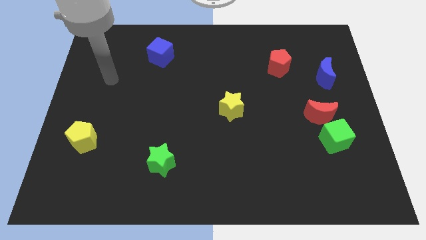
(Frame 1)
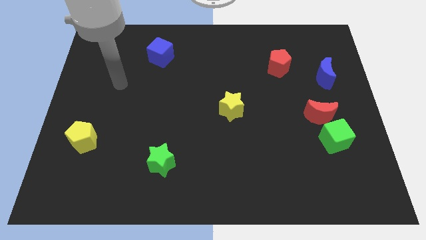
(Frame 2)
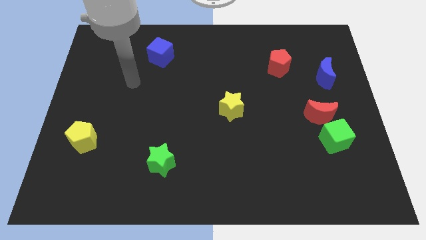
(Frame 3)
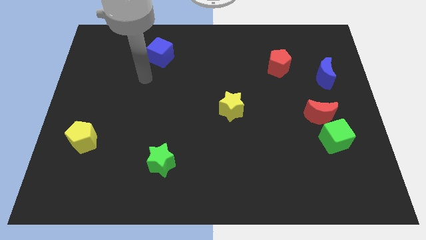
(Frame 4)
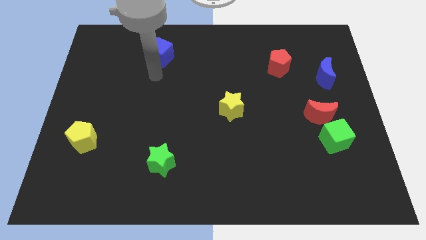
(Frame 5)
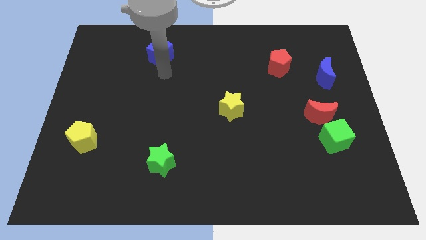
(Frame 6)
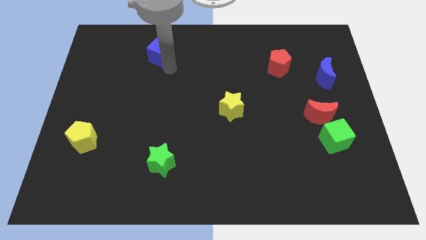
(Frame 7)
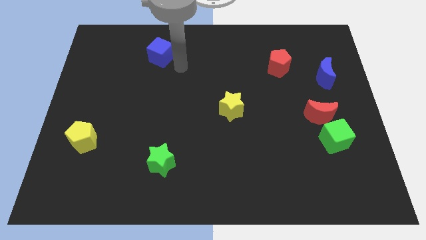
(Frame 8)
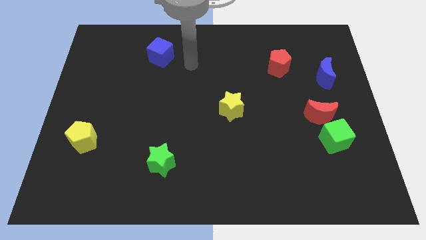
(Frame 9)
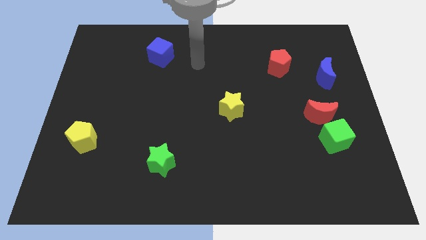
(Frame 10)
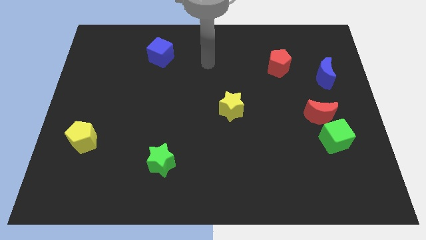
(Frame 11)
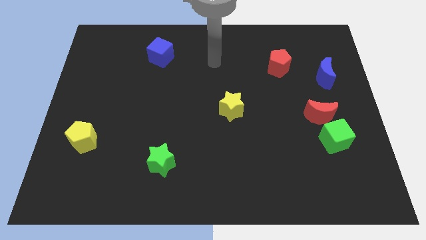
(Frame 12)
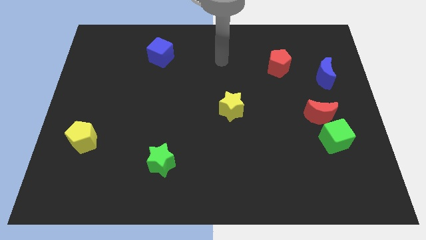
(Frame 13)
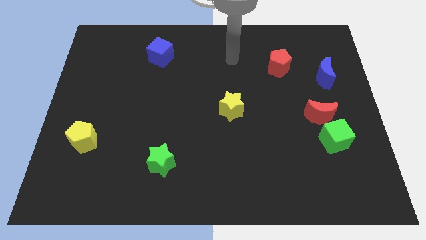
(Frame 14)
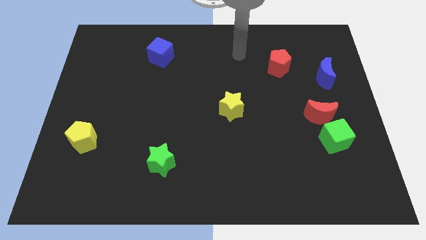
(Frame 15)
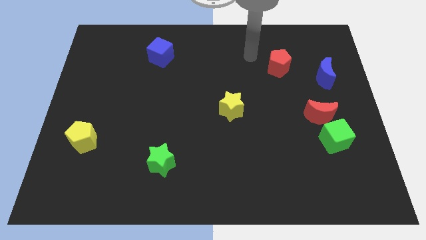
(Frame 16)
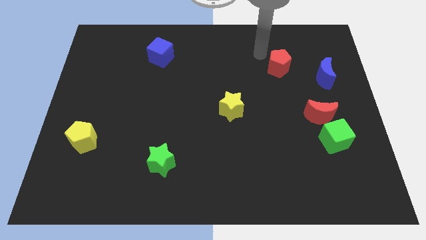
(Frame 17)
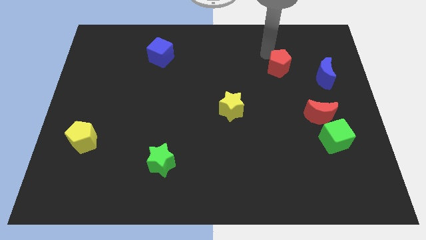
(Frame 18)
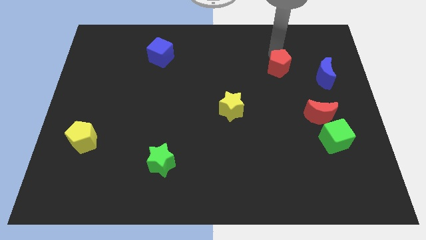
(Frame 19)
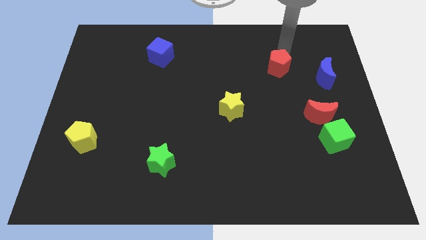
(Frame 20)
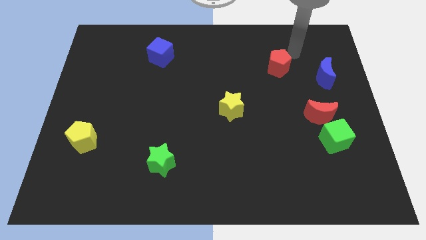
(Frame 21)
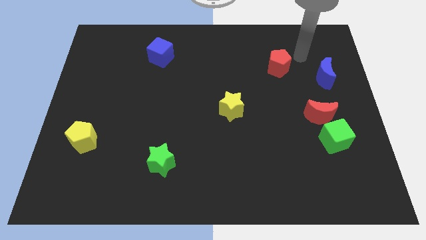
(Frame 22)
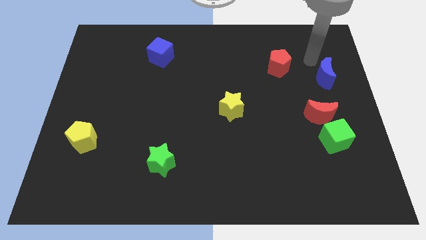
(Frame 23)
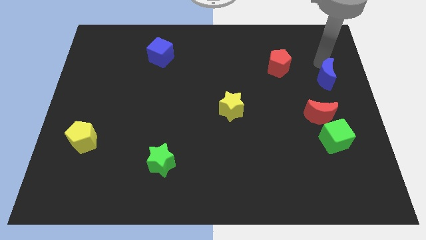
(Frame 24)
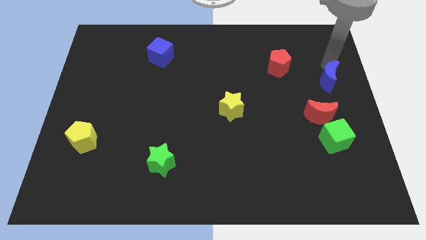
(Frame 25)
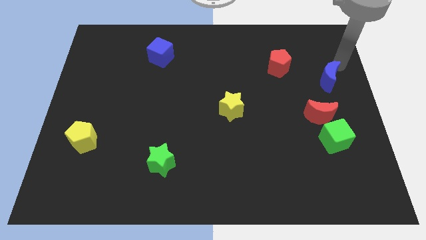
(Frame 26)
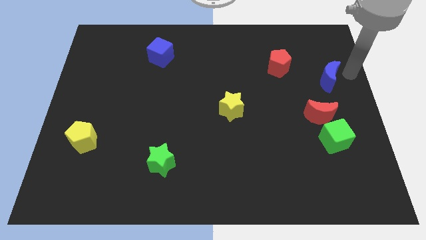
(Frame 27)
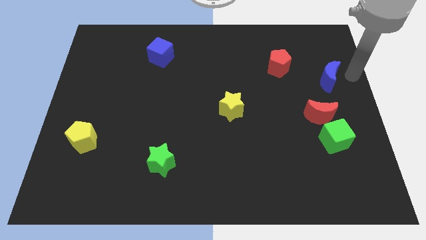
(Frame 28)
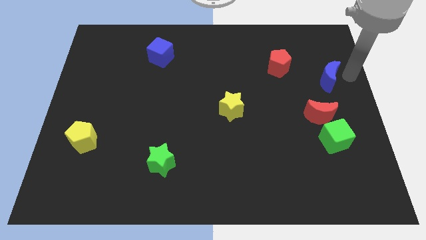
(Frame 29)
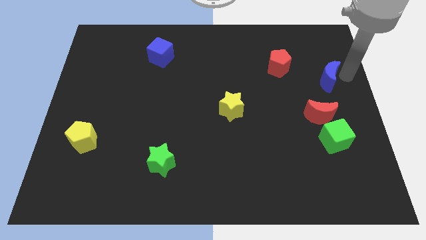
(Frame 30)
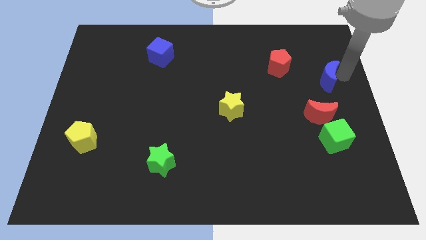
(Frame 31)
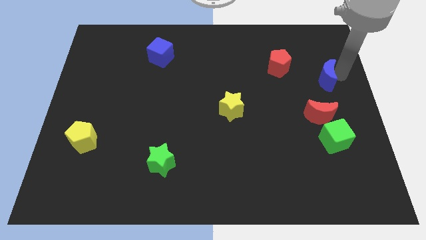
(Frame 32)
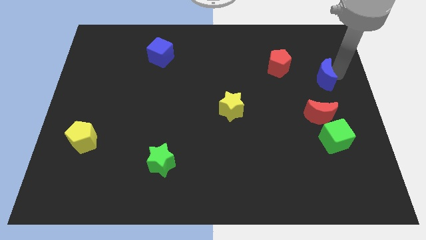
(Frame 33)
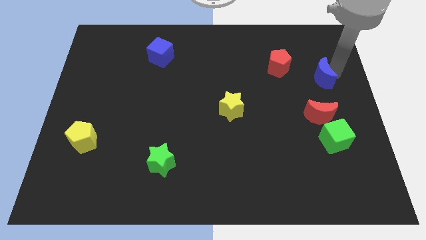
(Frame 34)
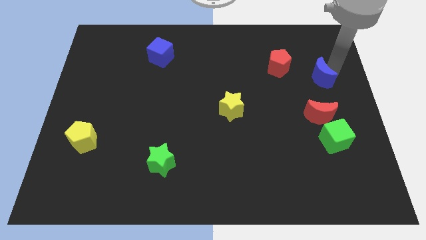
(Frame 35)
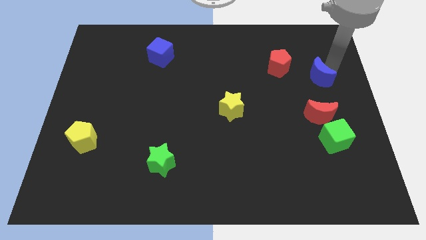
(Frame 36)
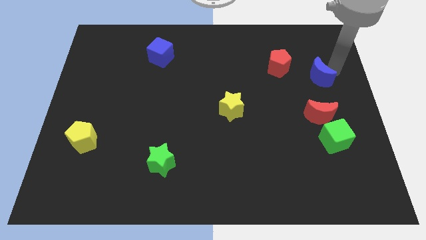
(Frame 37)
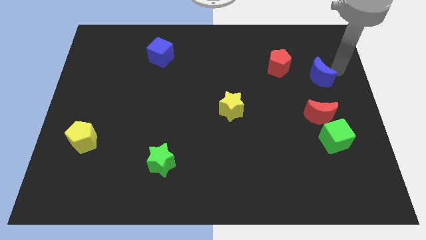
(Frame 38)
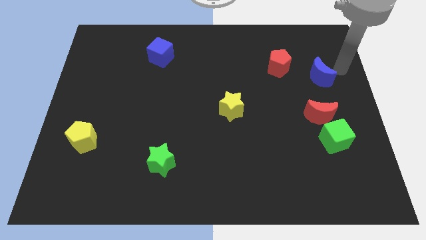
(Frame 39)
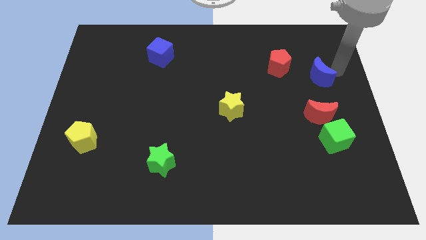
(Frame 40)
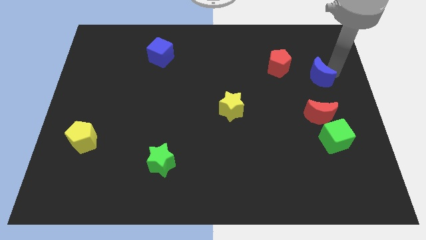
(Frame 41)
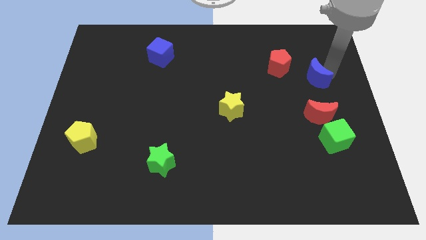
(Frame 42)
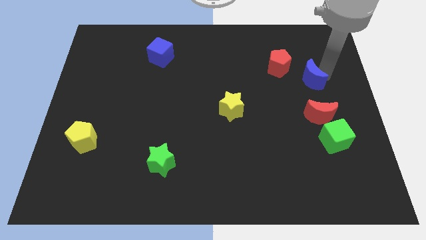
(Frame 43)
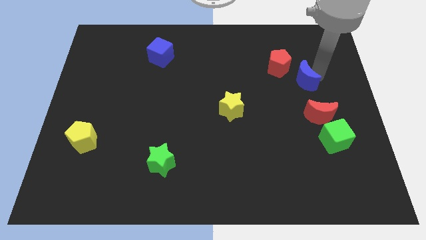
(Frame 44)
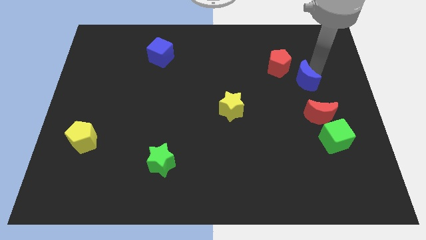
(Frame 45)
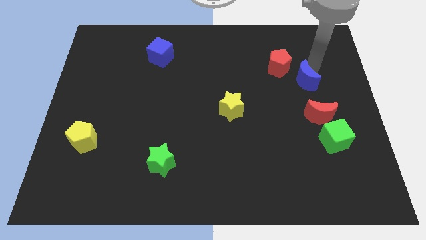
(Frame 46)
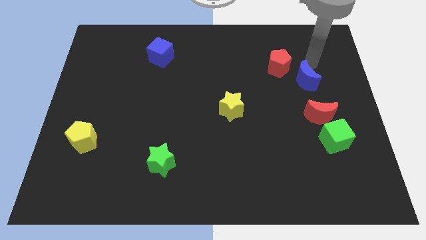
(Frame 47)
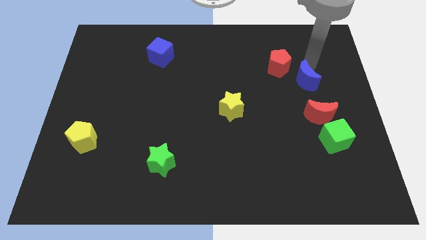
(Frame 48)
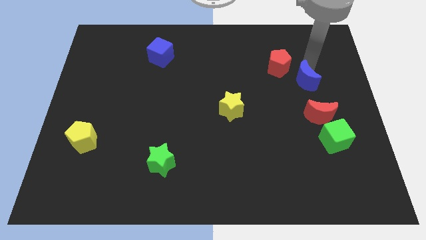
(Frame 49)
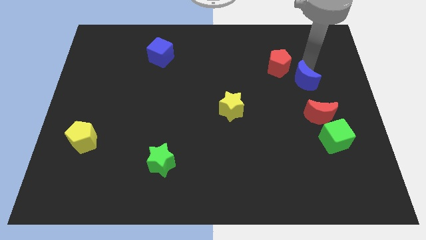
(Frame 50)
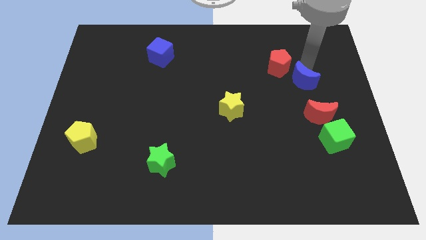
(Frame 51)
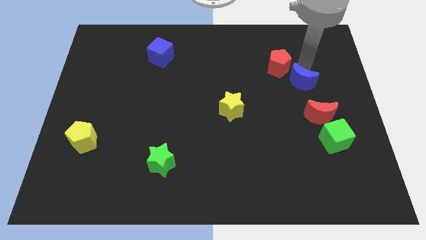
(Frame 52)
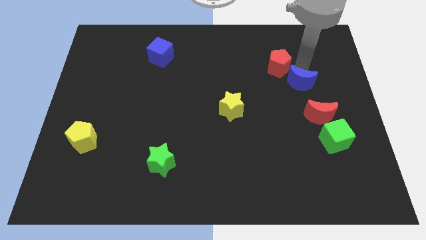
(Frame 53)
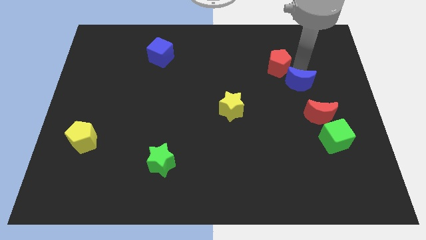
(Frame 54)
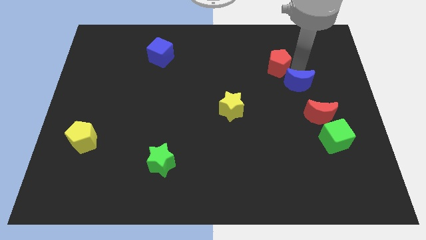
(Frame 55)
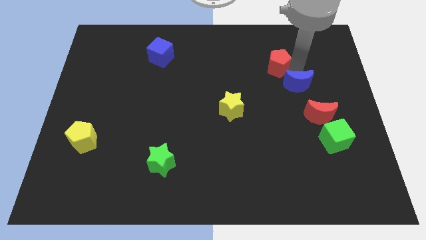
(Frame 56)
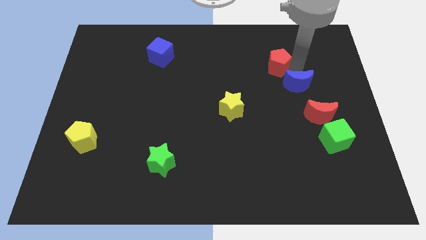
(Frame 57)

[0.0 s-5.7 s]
move the blue moon downwards and to the left somewhat

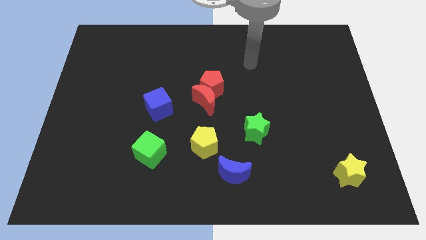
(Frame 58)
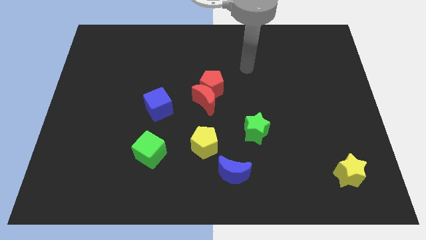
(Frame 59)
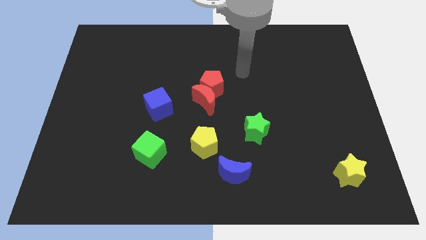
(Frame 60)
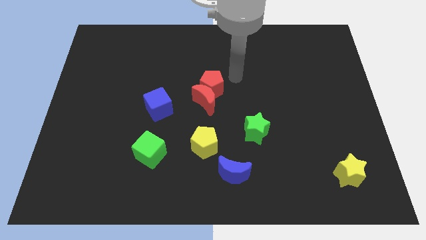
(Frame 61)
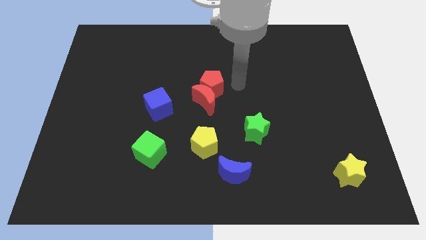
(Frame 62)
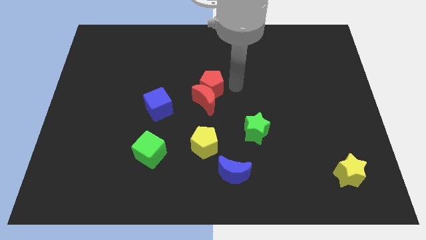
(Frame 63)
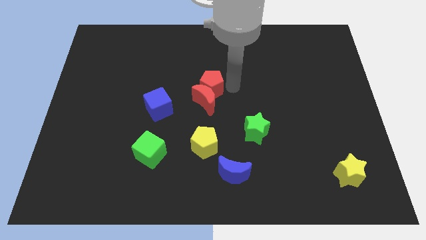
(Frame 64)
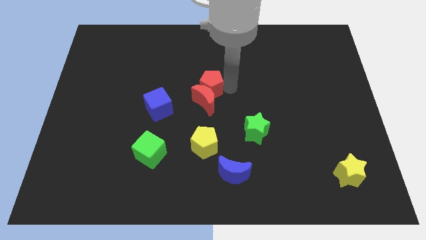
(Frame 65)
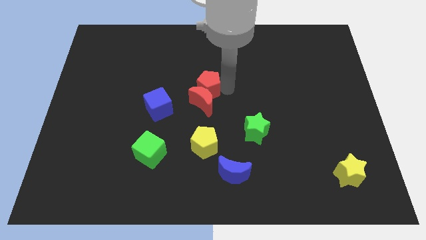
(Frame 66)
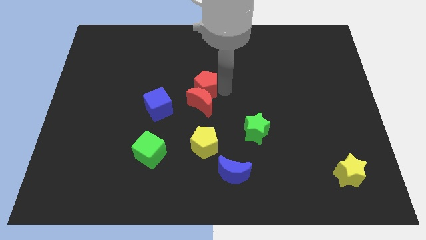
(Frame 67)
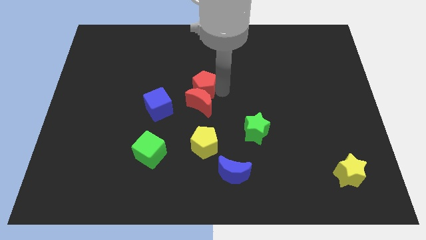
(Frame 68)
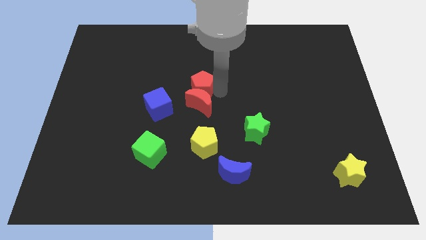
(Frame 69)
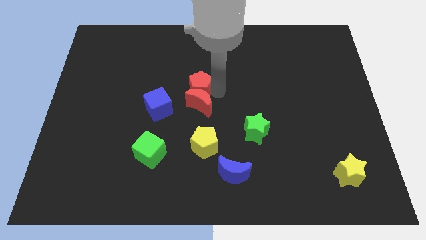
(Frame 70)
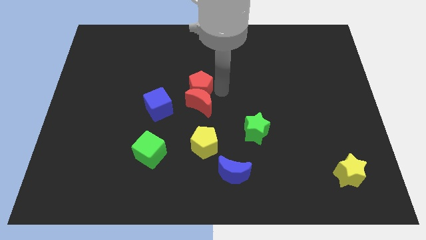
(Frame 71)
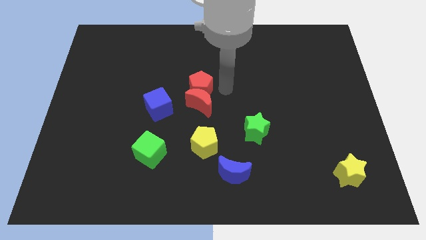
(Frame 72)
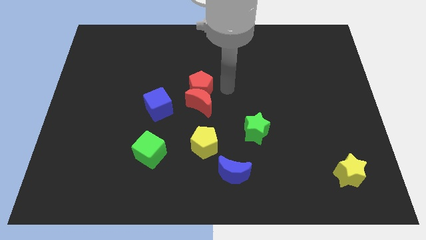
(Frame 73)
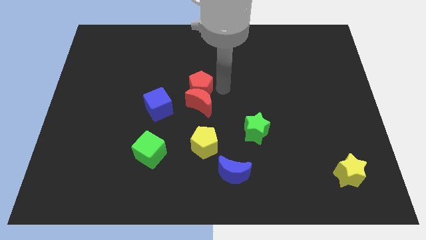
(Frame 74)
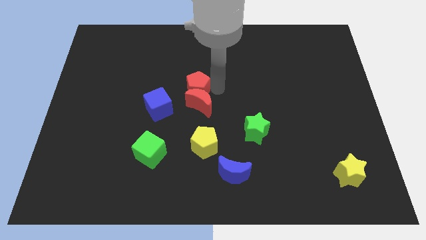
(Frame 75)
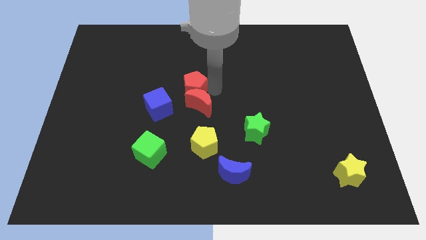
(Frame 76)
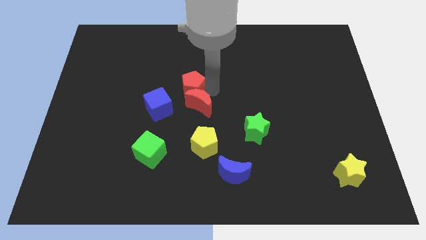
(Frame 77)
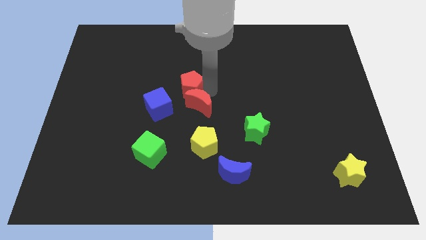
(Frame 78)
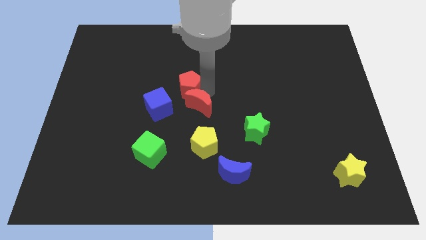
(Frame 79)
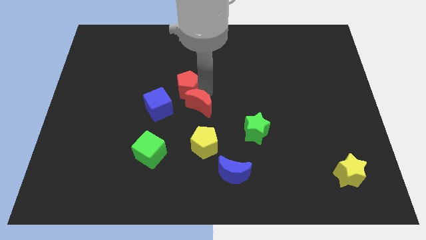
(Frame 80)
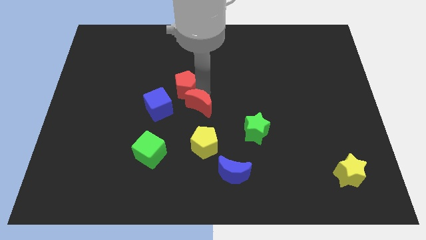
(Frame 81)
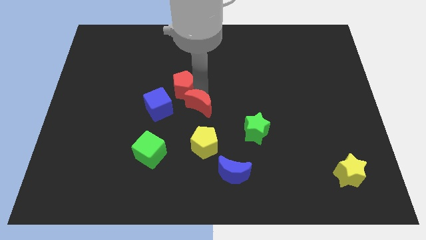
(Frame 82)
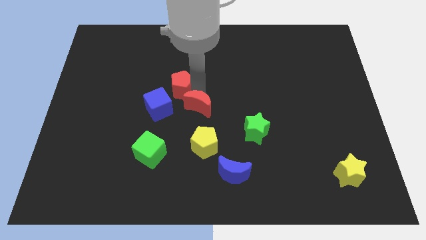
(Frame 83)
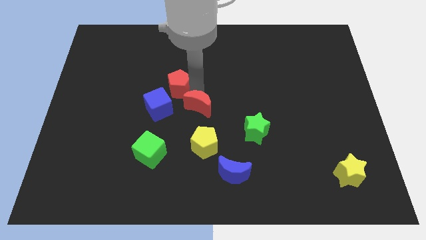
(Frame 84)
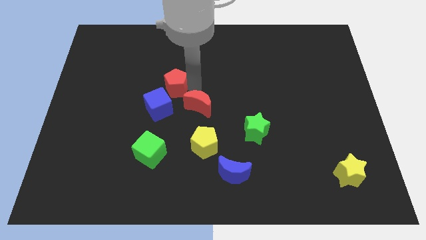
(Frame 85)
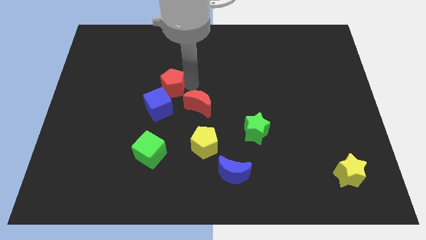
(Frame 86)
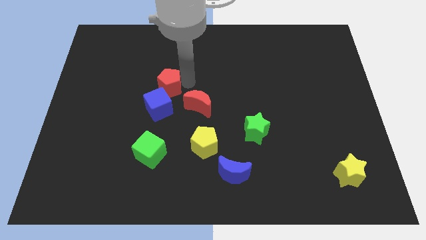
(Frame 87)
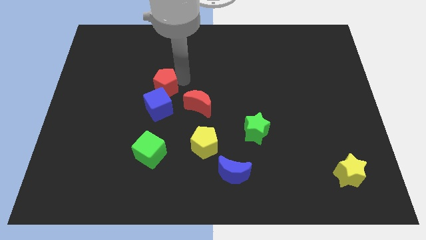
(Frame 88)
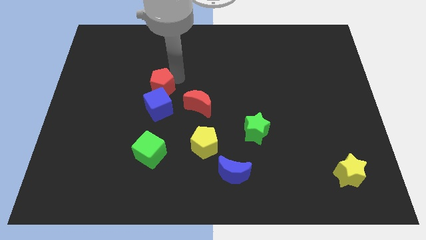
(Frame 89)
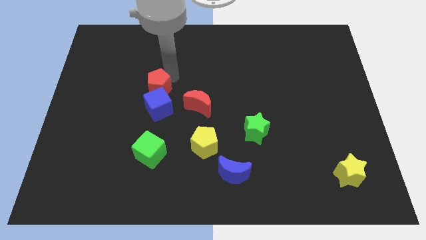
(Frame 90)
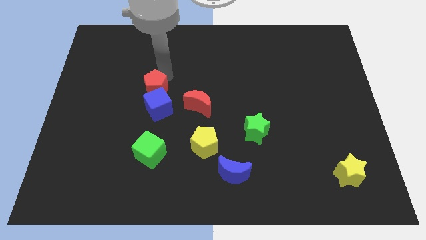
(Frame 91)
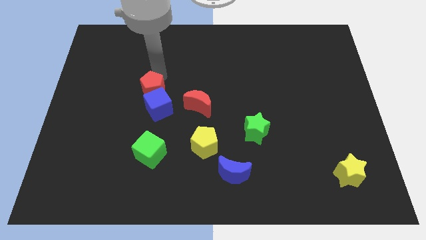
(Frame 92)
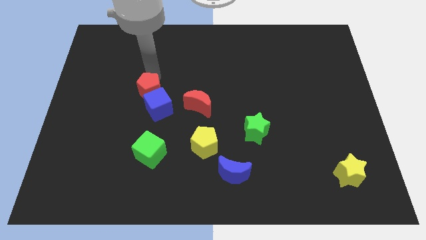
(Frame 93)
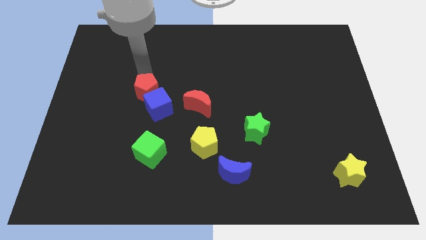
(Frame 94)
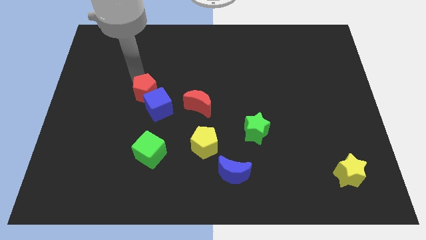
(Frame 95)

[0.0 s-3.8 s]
slightly slide the red pentagon downwards and left
